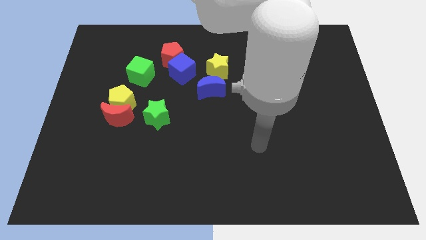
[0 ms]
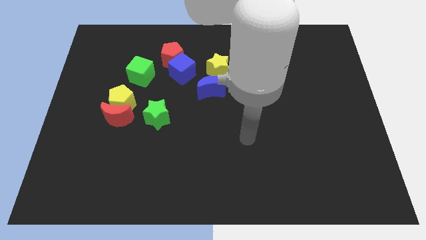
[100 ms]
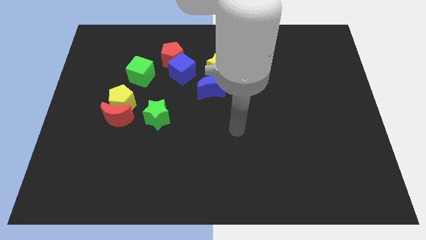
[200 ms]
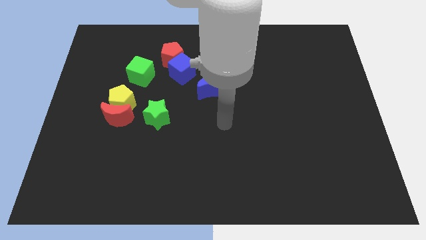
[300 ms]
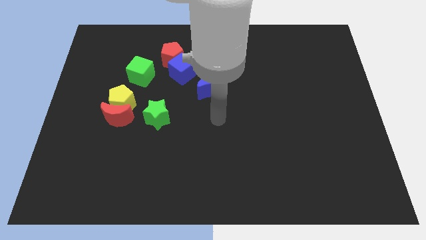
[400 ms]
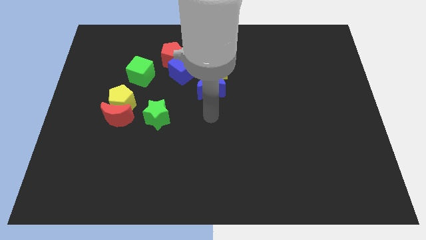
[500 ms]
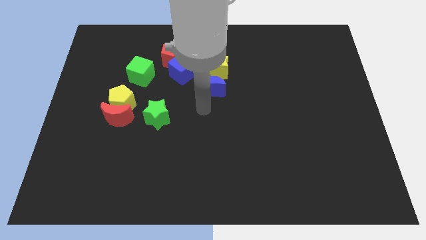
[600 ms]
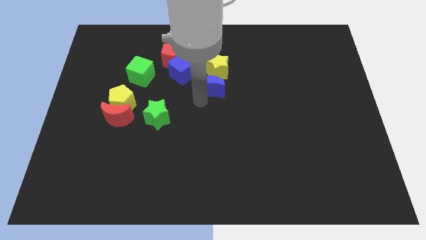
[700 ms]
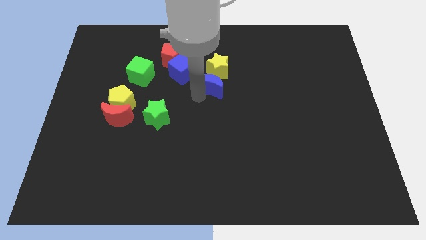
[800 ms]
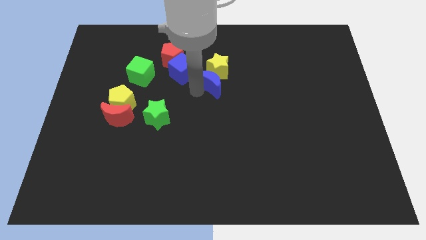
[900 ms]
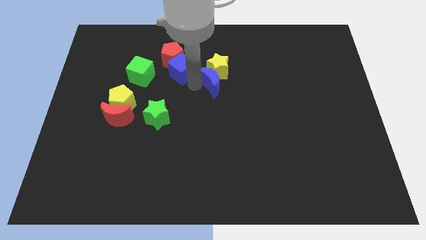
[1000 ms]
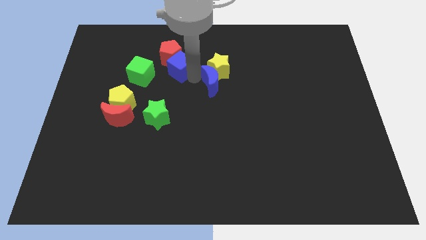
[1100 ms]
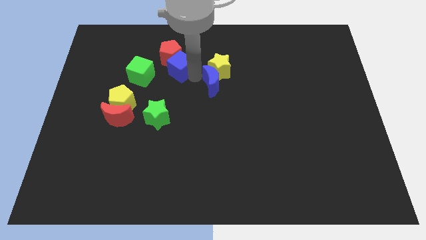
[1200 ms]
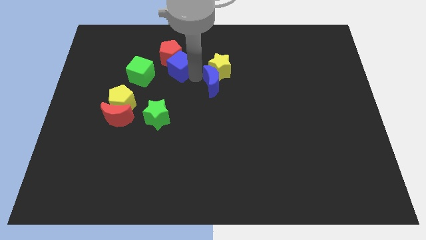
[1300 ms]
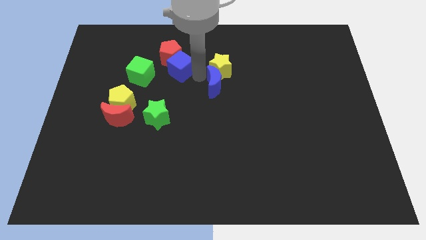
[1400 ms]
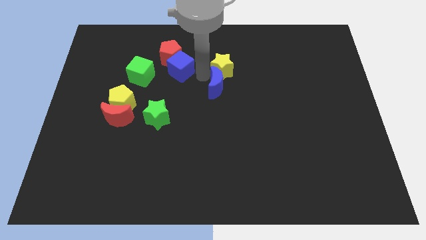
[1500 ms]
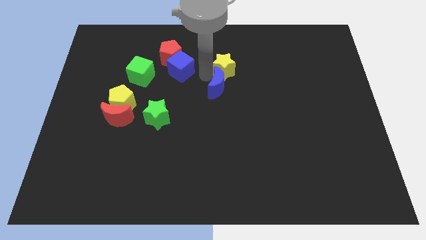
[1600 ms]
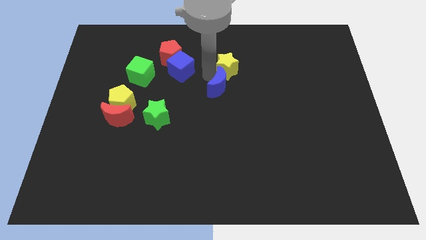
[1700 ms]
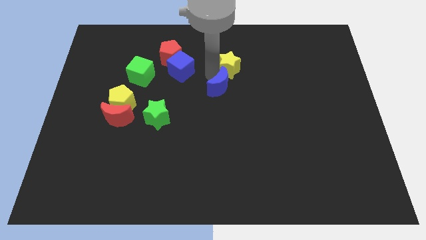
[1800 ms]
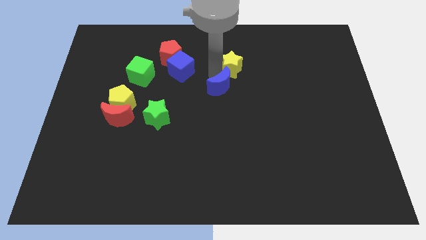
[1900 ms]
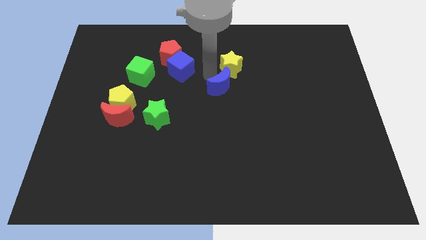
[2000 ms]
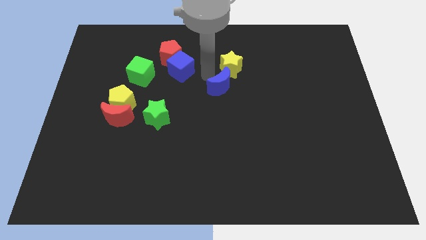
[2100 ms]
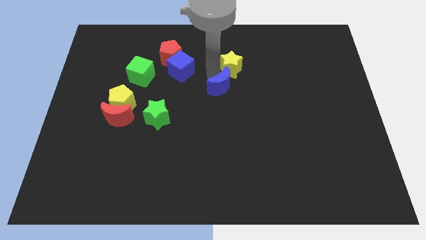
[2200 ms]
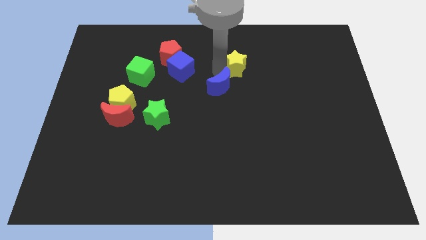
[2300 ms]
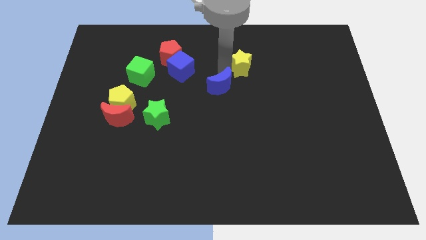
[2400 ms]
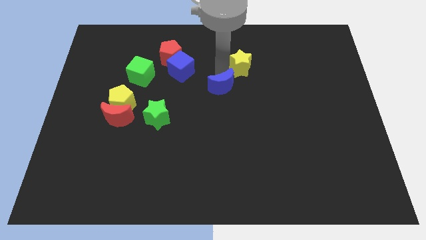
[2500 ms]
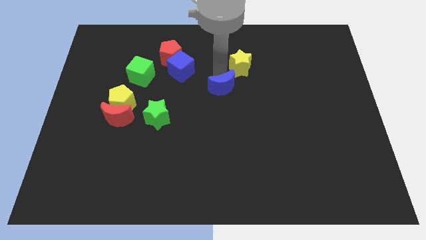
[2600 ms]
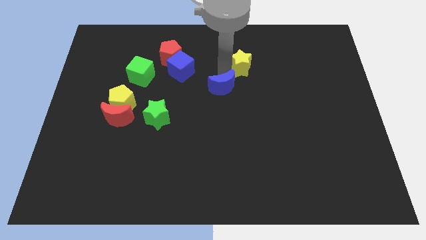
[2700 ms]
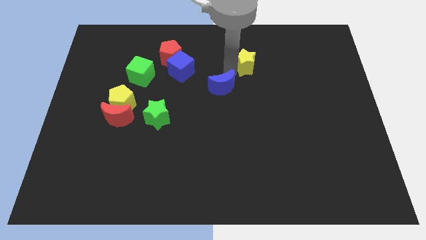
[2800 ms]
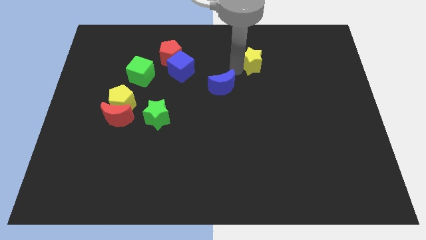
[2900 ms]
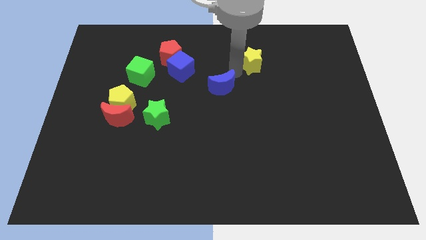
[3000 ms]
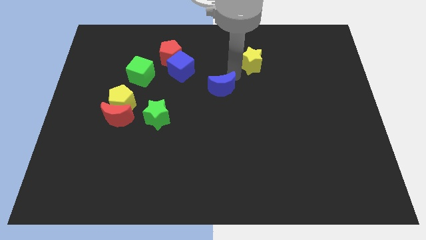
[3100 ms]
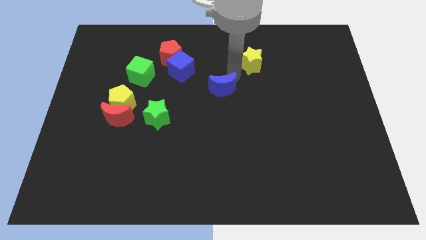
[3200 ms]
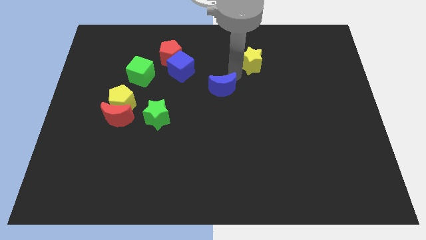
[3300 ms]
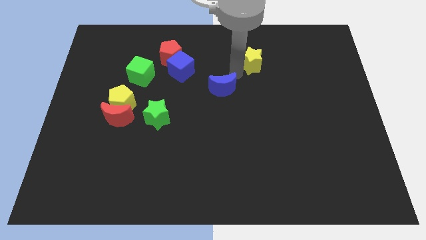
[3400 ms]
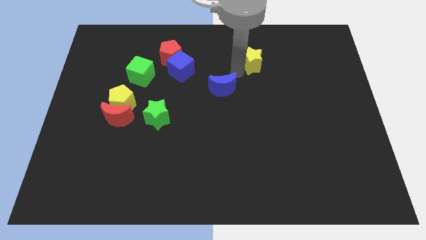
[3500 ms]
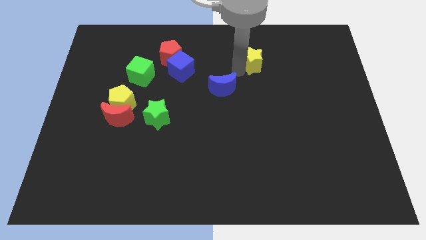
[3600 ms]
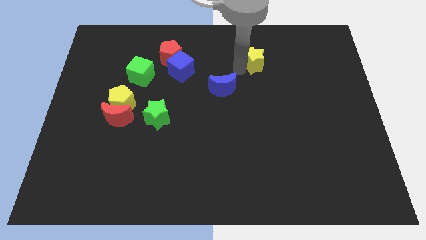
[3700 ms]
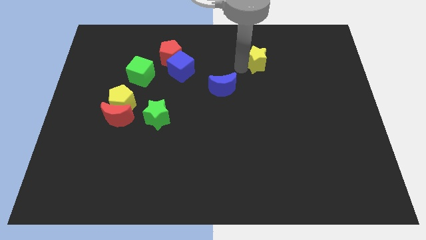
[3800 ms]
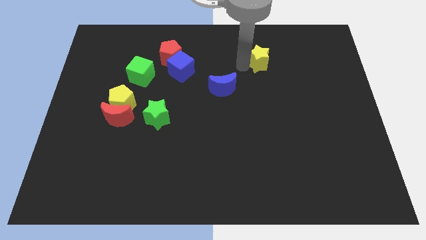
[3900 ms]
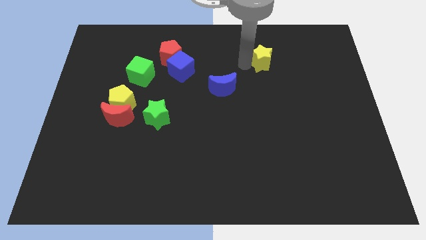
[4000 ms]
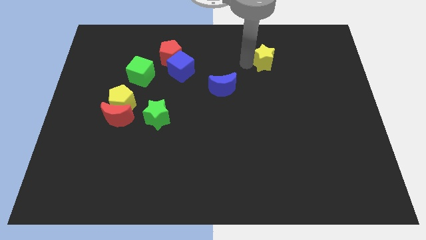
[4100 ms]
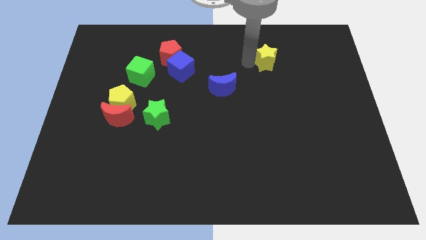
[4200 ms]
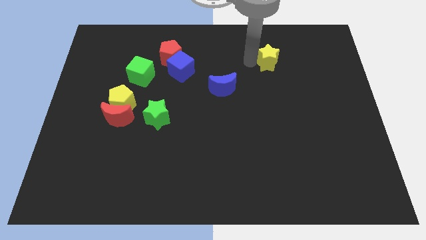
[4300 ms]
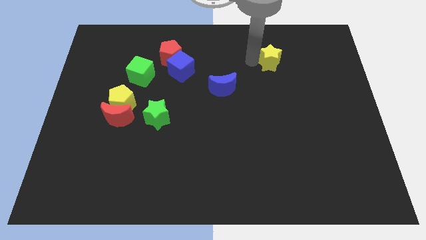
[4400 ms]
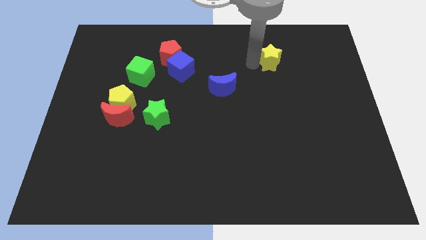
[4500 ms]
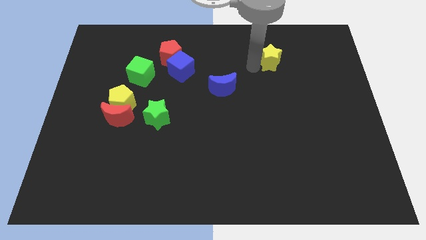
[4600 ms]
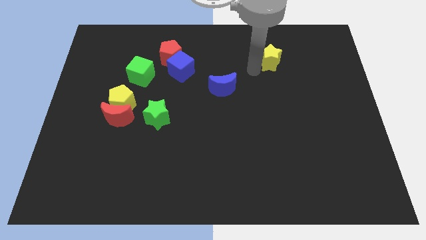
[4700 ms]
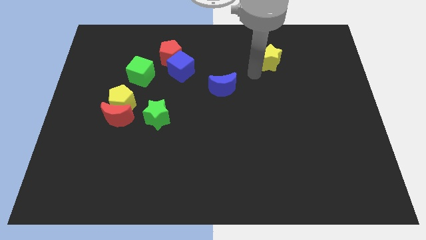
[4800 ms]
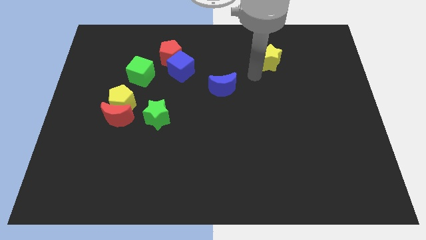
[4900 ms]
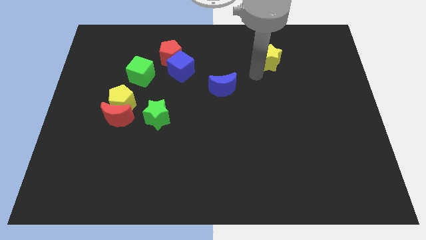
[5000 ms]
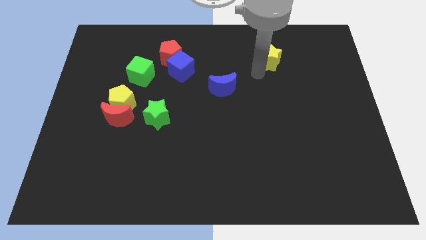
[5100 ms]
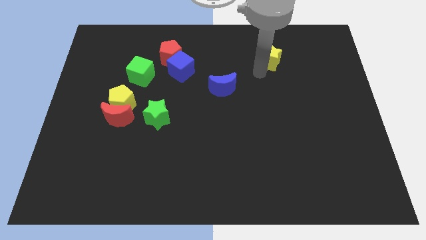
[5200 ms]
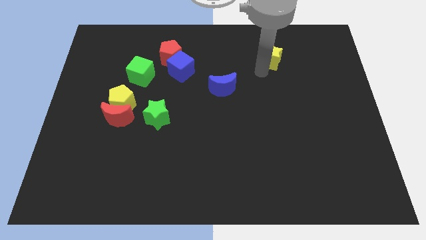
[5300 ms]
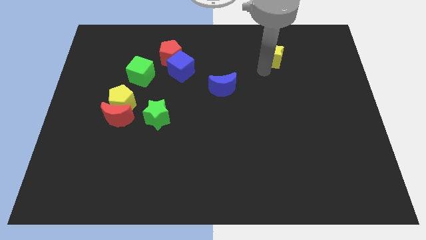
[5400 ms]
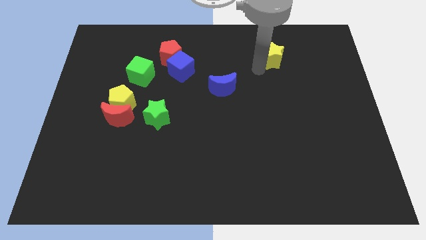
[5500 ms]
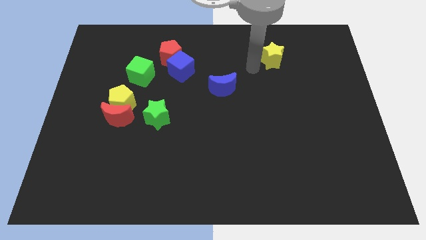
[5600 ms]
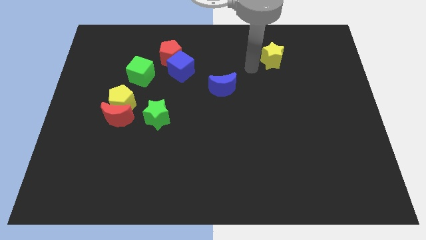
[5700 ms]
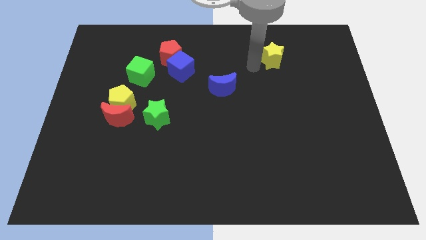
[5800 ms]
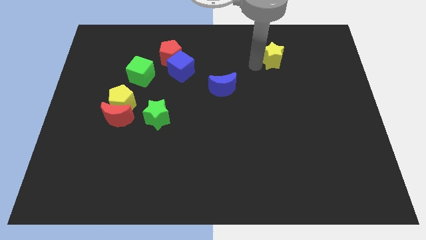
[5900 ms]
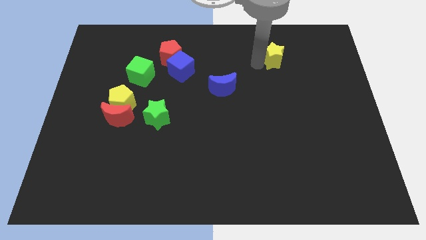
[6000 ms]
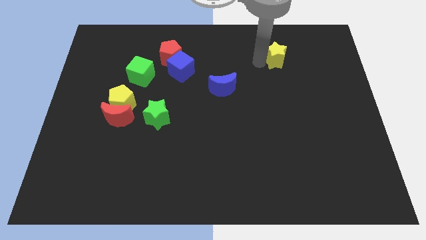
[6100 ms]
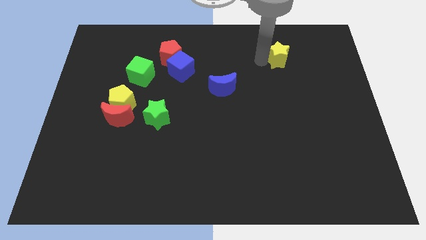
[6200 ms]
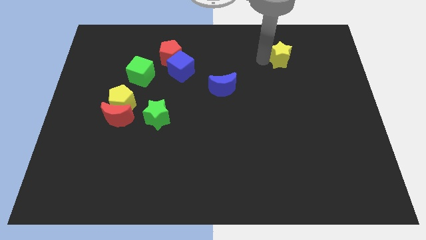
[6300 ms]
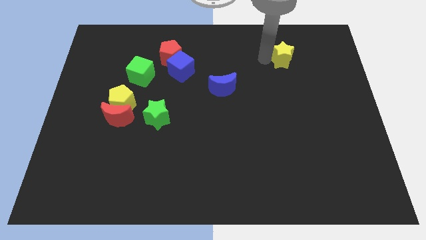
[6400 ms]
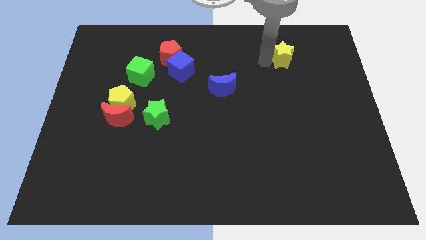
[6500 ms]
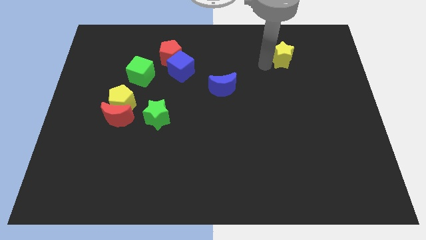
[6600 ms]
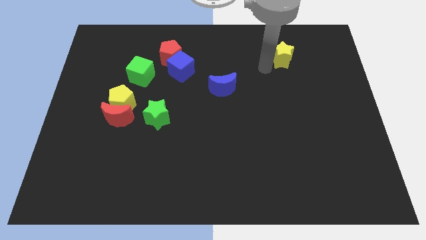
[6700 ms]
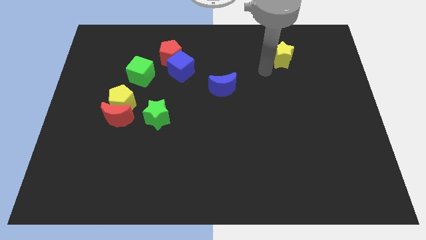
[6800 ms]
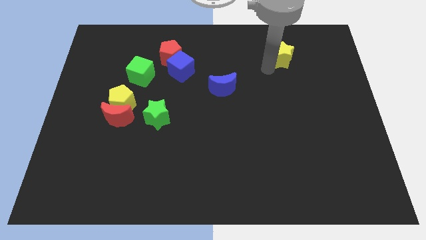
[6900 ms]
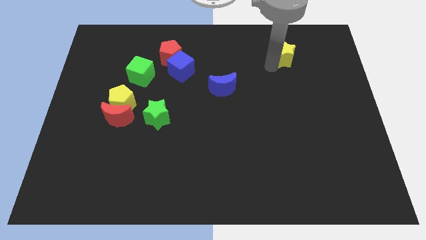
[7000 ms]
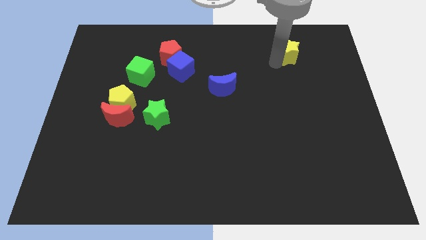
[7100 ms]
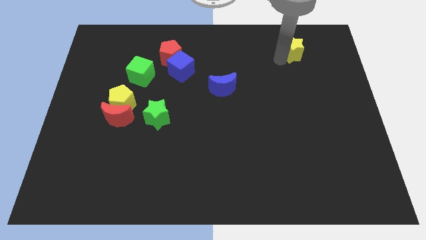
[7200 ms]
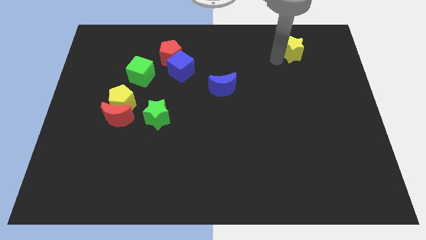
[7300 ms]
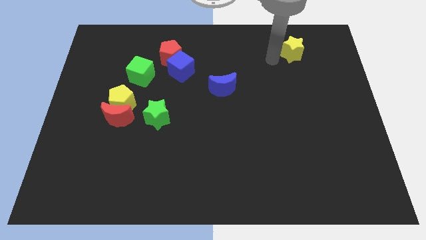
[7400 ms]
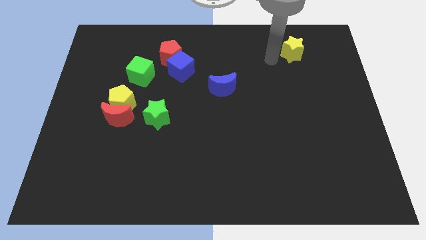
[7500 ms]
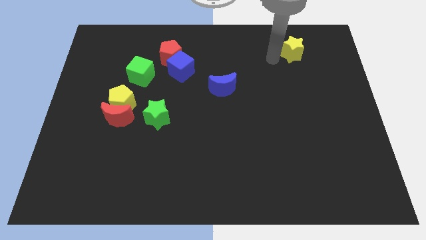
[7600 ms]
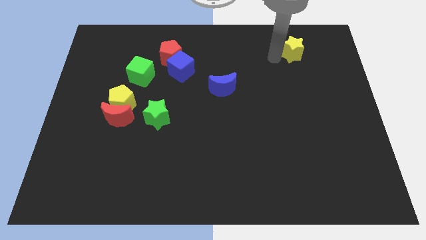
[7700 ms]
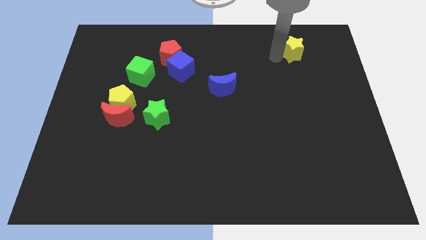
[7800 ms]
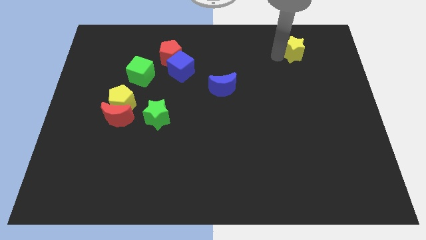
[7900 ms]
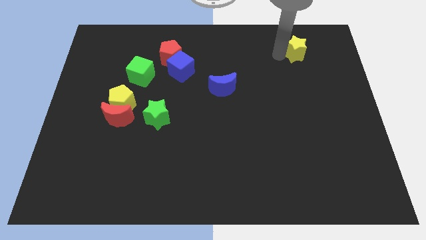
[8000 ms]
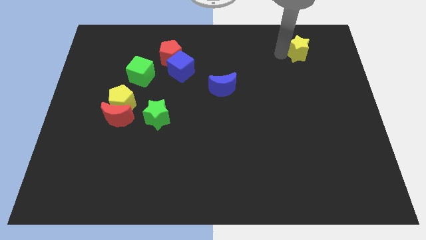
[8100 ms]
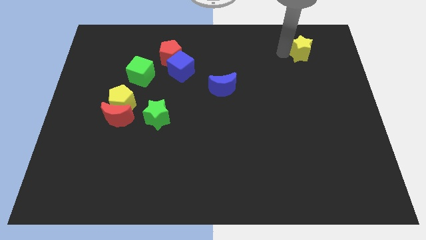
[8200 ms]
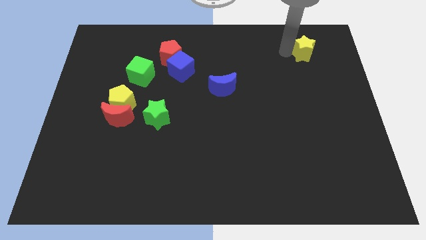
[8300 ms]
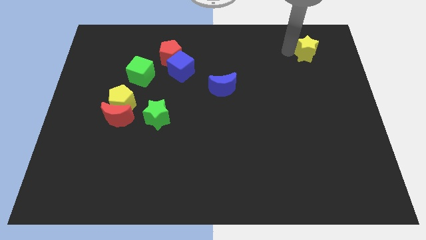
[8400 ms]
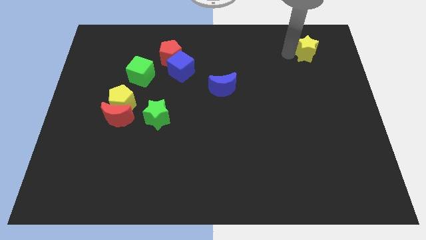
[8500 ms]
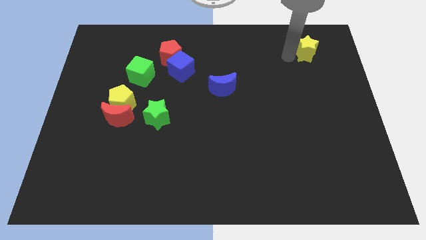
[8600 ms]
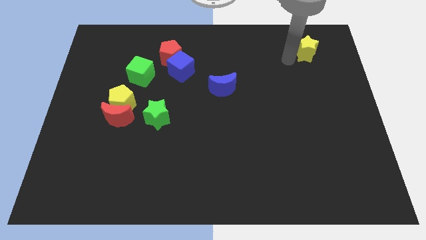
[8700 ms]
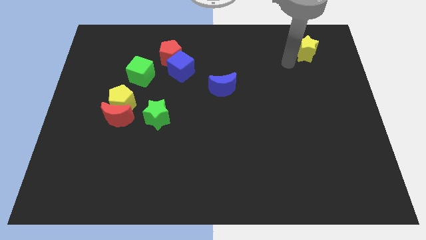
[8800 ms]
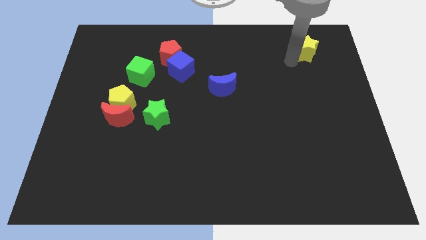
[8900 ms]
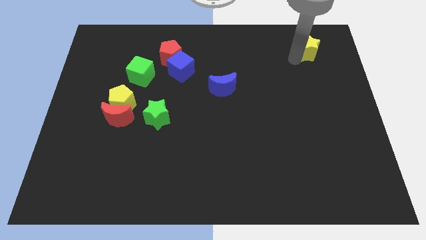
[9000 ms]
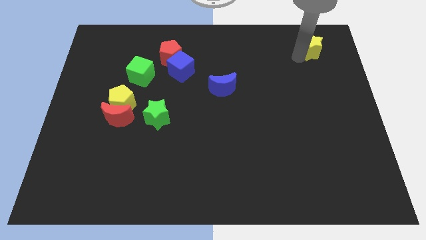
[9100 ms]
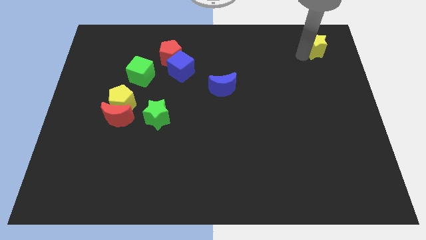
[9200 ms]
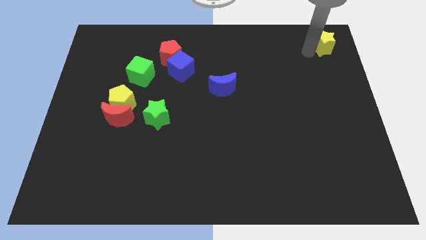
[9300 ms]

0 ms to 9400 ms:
push the yellow star to the top right
